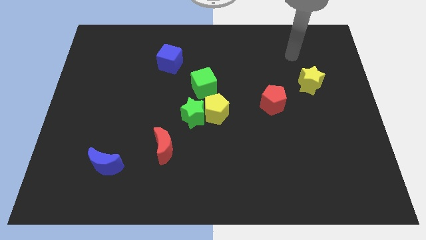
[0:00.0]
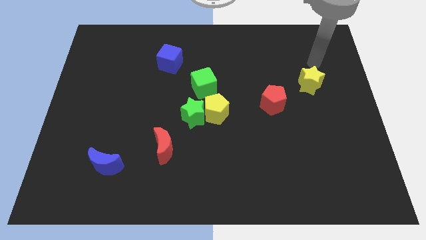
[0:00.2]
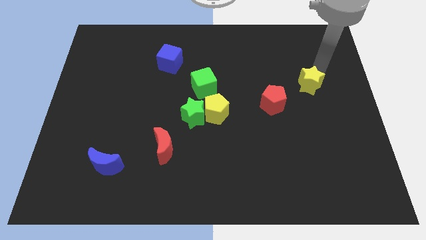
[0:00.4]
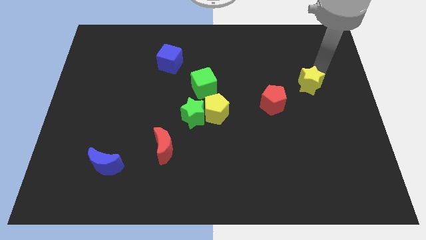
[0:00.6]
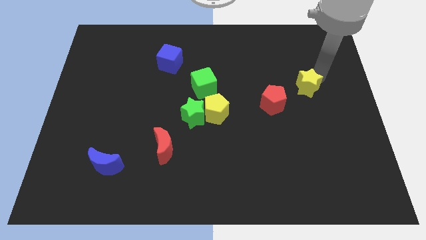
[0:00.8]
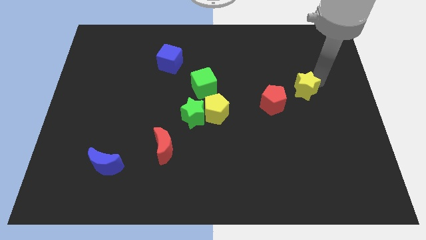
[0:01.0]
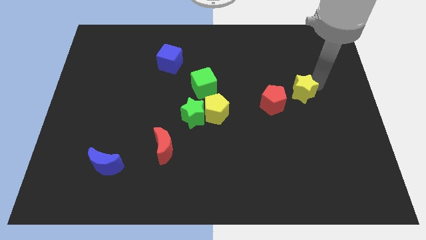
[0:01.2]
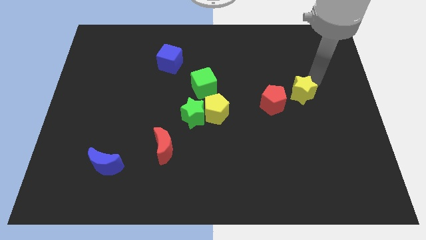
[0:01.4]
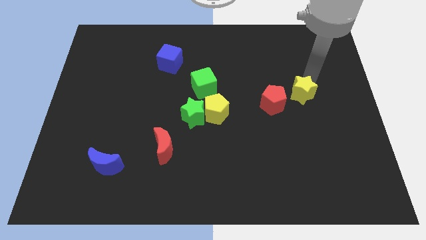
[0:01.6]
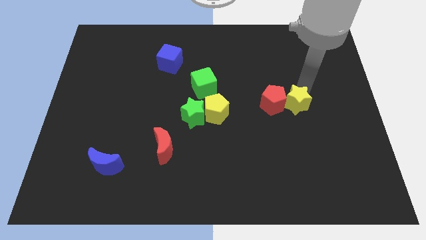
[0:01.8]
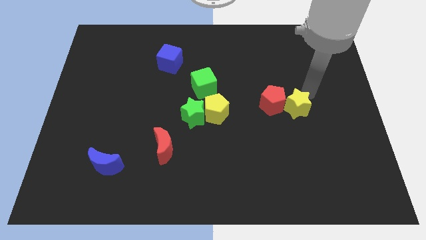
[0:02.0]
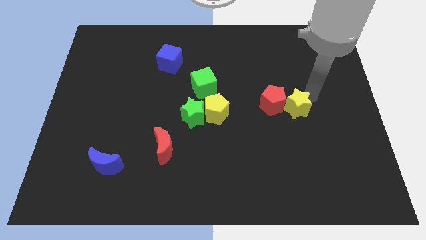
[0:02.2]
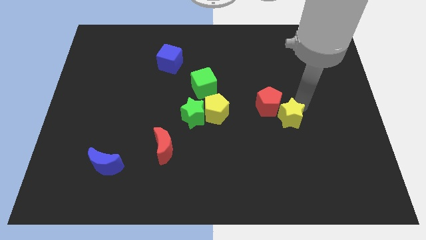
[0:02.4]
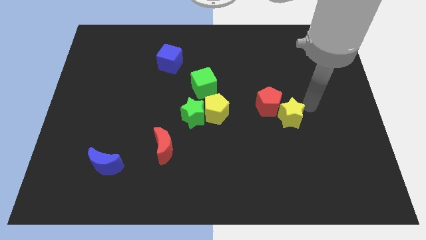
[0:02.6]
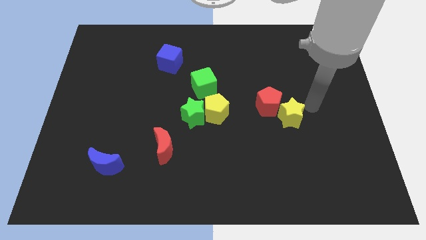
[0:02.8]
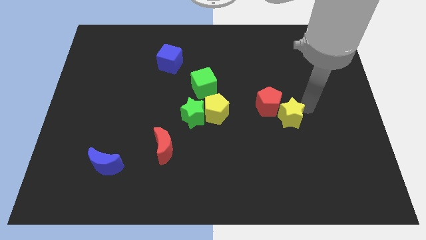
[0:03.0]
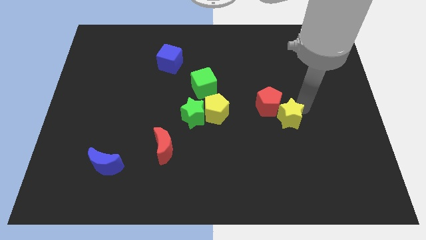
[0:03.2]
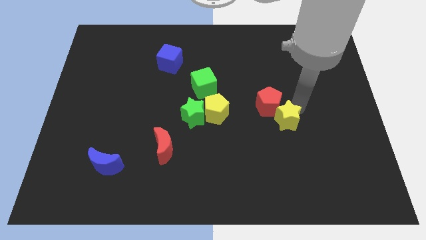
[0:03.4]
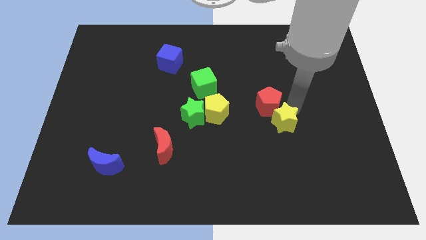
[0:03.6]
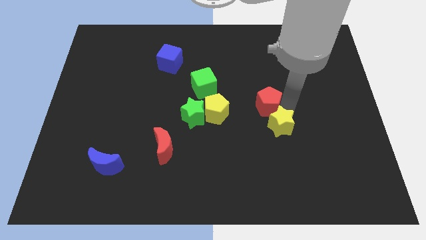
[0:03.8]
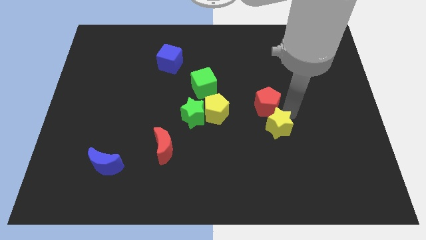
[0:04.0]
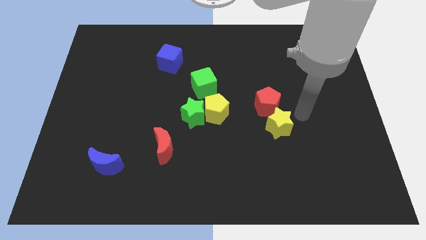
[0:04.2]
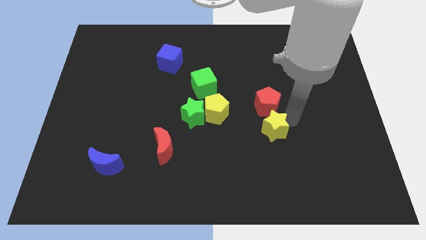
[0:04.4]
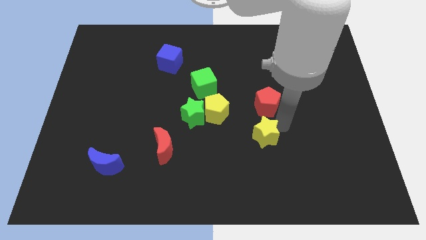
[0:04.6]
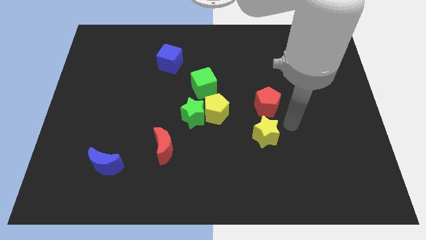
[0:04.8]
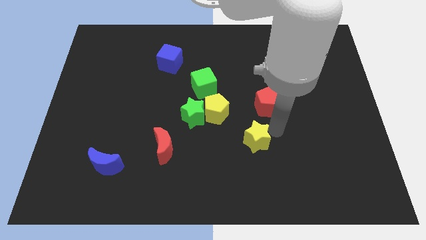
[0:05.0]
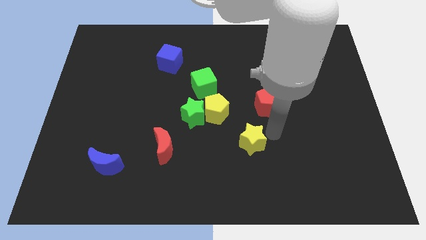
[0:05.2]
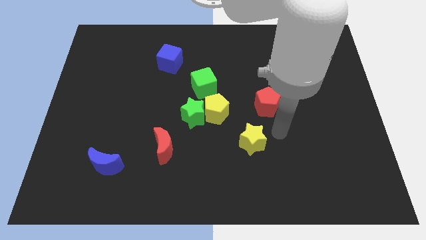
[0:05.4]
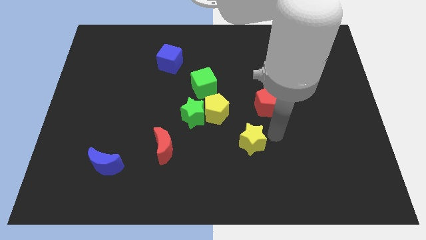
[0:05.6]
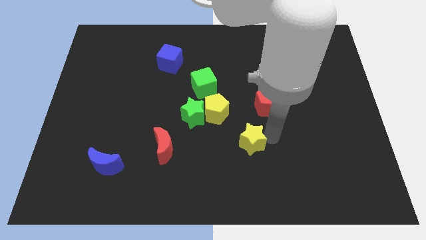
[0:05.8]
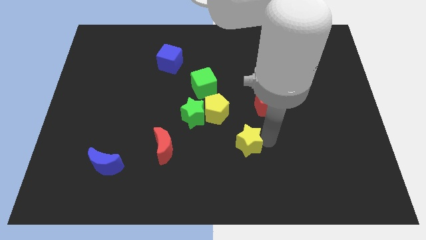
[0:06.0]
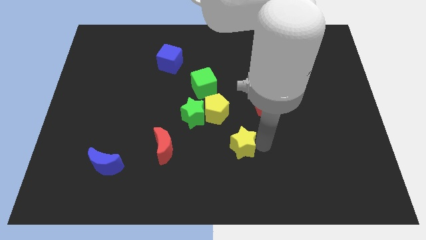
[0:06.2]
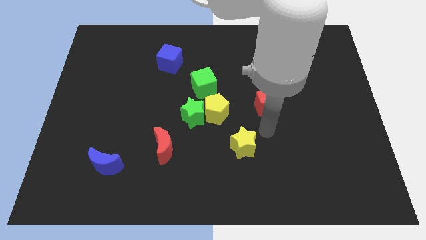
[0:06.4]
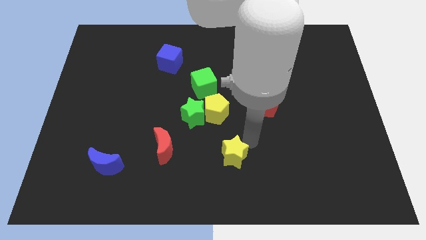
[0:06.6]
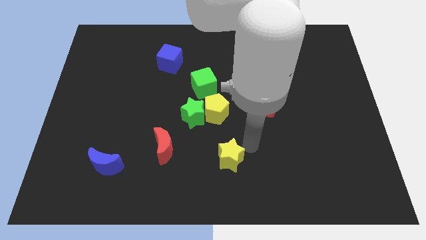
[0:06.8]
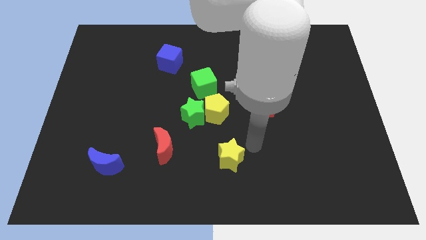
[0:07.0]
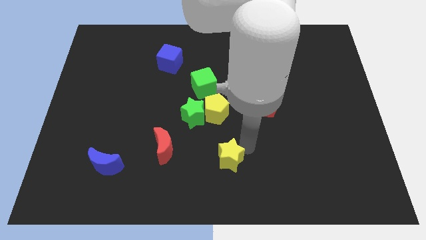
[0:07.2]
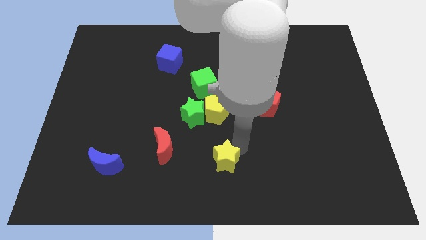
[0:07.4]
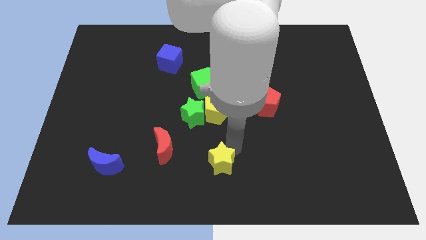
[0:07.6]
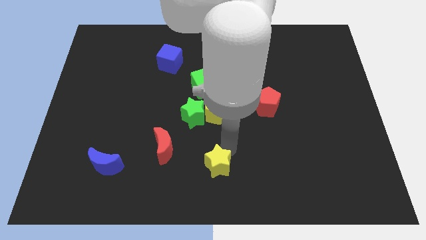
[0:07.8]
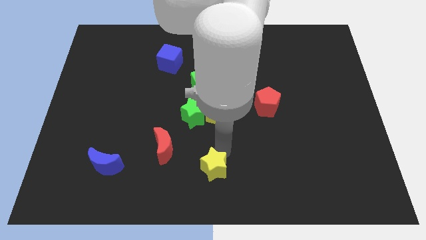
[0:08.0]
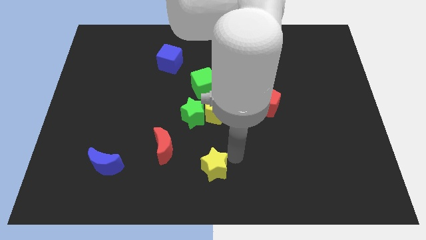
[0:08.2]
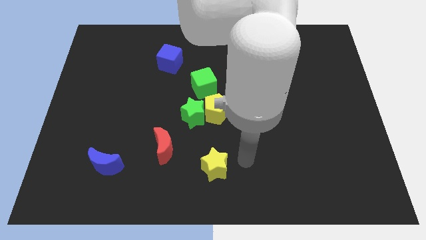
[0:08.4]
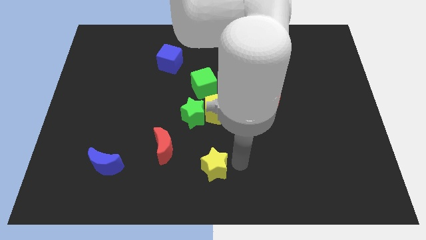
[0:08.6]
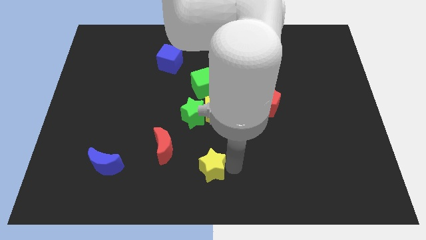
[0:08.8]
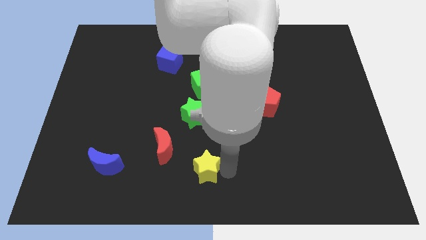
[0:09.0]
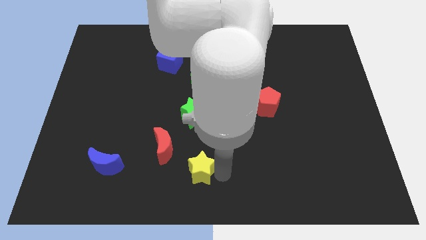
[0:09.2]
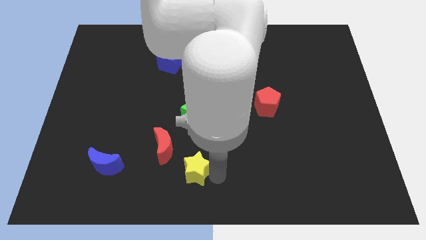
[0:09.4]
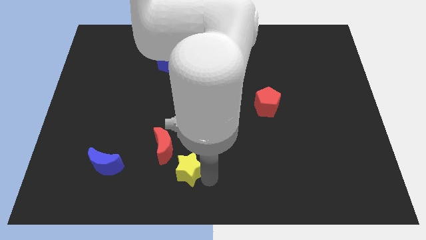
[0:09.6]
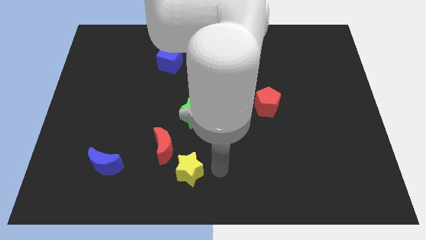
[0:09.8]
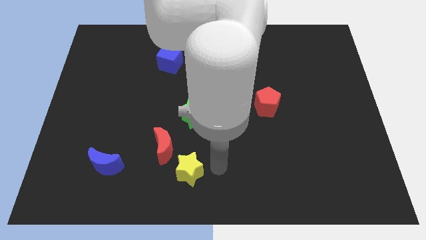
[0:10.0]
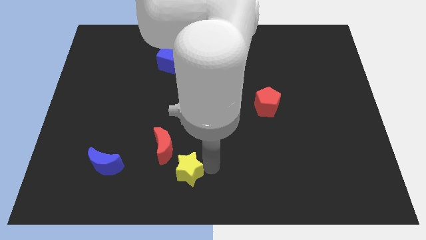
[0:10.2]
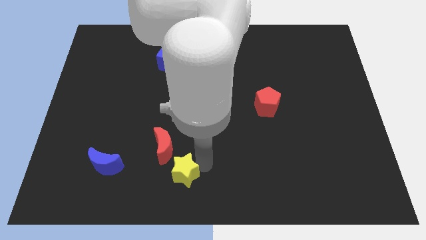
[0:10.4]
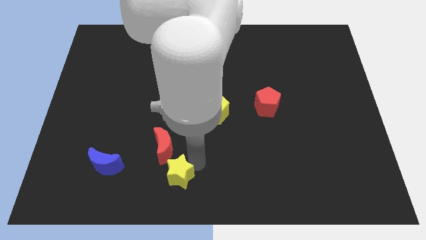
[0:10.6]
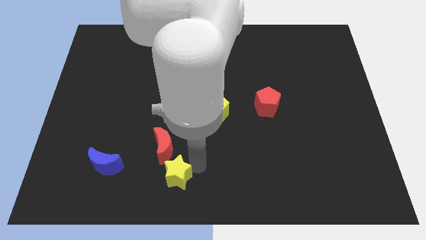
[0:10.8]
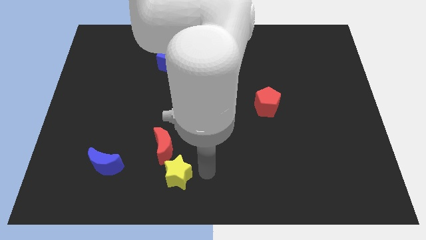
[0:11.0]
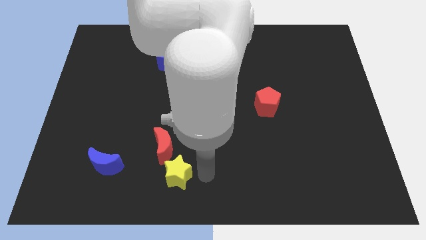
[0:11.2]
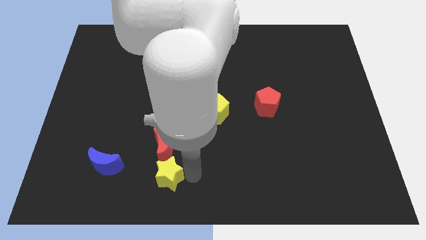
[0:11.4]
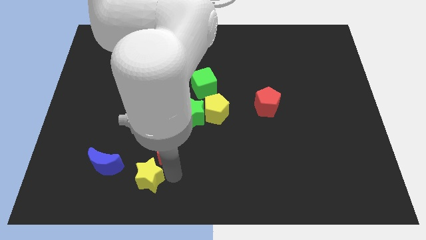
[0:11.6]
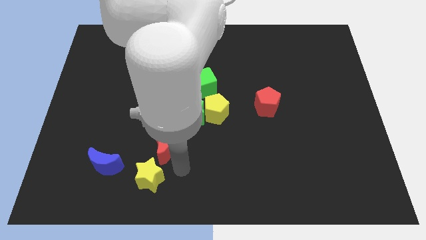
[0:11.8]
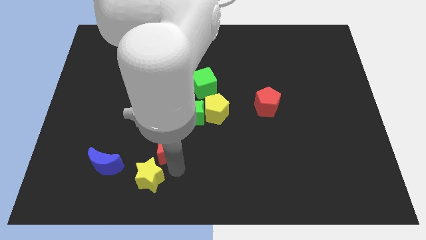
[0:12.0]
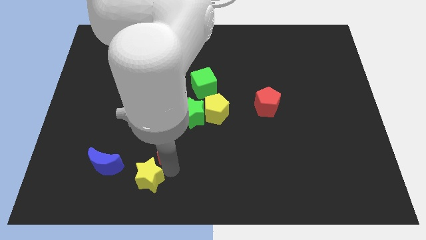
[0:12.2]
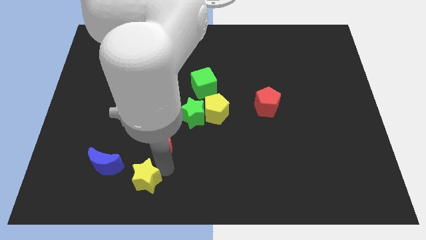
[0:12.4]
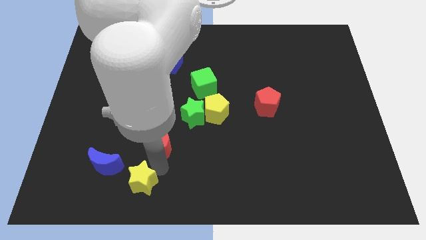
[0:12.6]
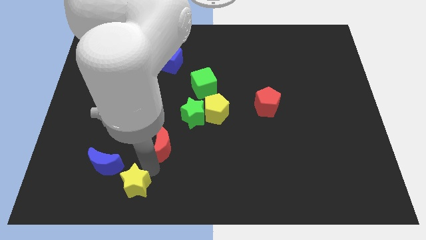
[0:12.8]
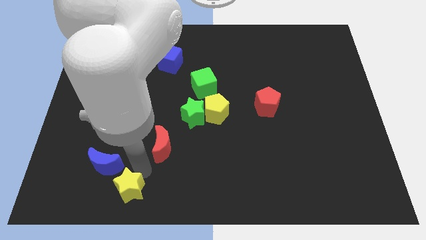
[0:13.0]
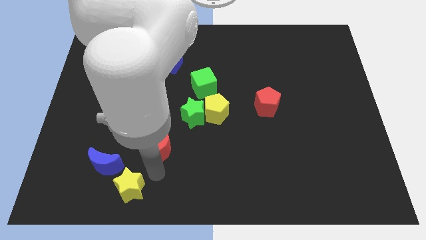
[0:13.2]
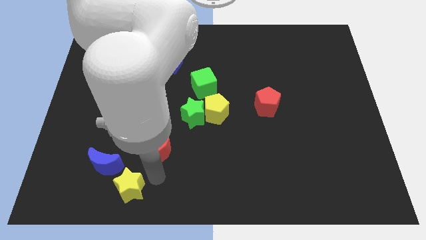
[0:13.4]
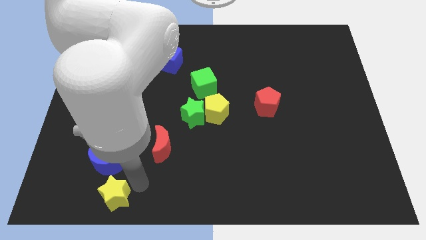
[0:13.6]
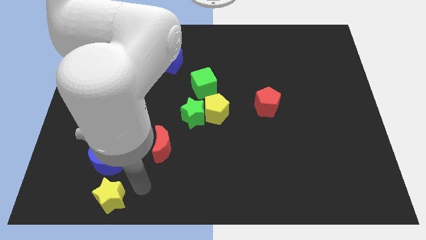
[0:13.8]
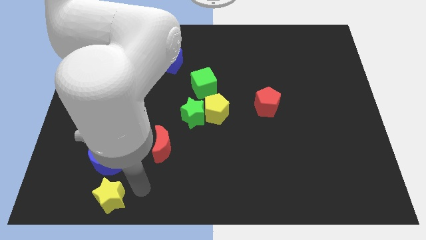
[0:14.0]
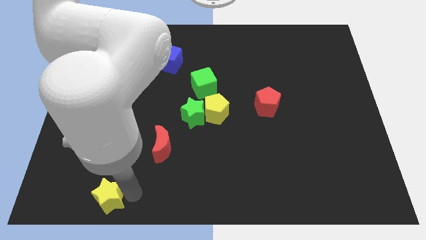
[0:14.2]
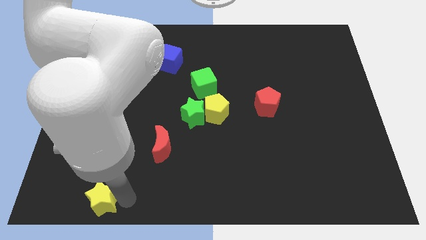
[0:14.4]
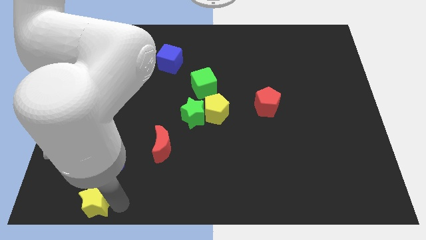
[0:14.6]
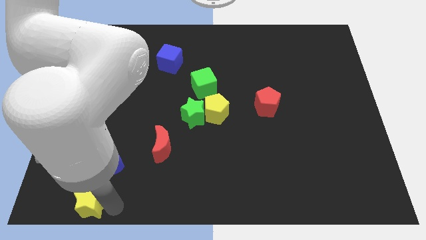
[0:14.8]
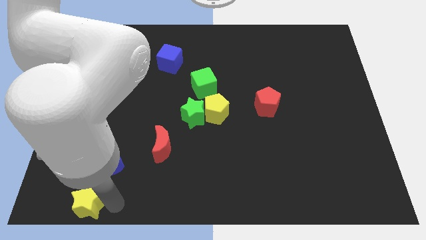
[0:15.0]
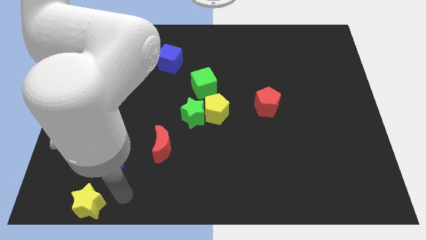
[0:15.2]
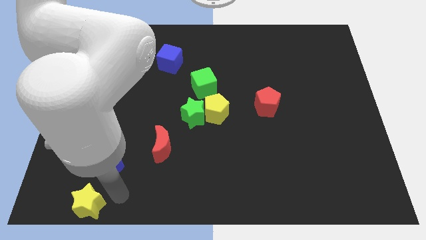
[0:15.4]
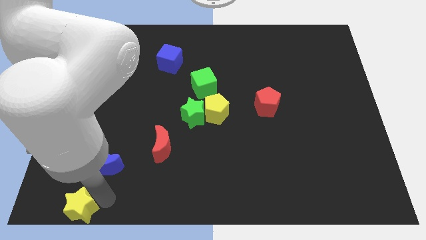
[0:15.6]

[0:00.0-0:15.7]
put the yellow star to the bottom left of the board
